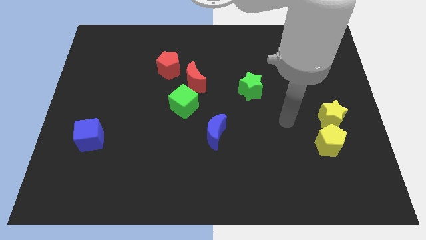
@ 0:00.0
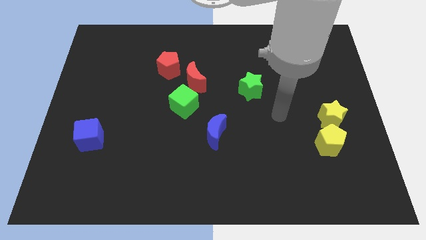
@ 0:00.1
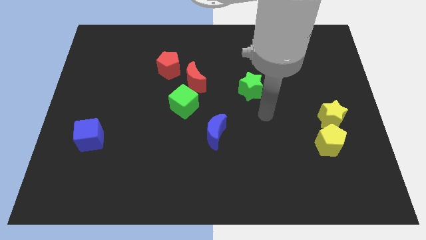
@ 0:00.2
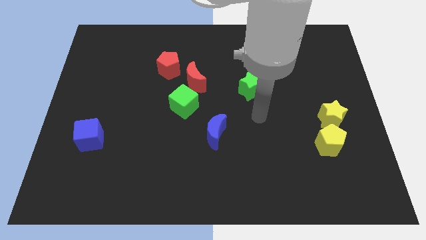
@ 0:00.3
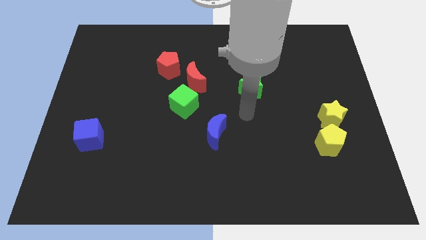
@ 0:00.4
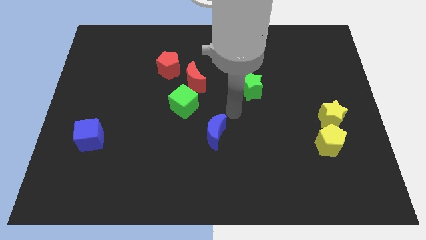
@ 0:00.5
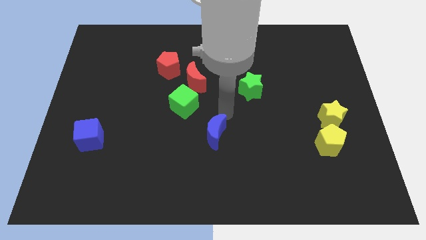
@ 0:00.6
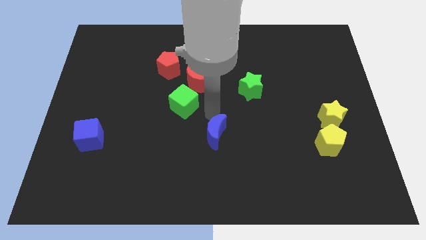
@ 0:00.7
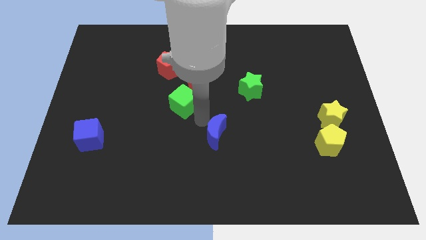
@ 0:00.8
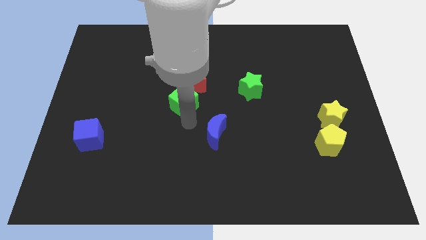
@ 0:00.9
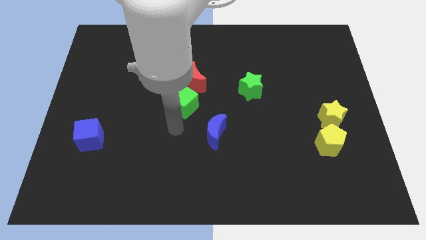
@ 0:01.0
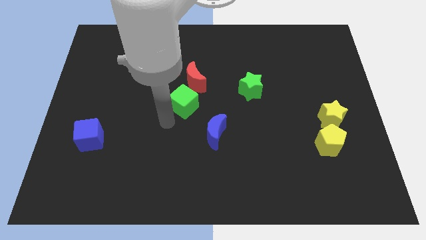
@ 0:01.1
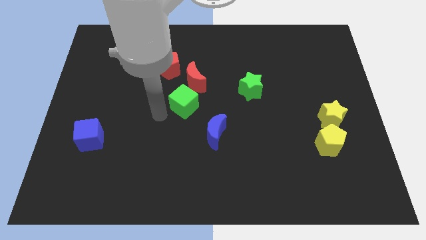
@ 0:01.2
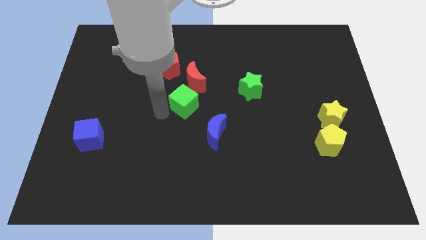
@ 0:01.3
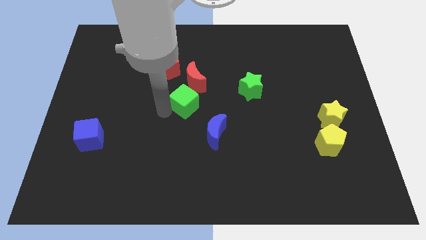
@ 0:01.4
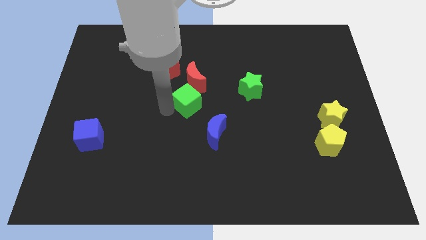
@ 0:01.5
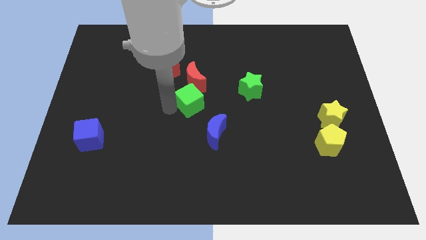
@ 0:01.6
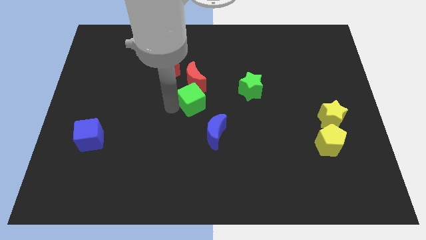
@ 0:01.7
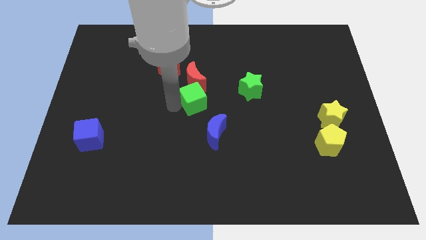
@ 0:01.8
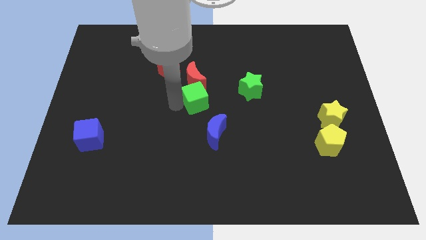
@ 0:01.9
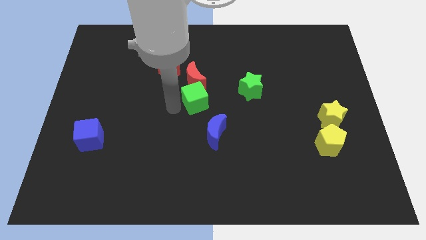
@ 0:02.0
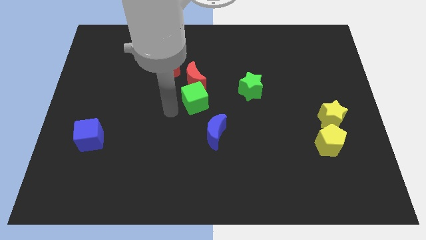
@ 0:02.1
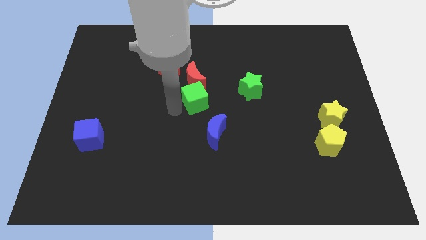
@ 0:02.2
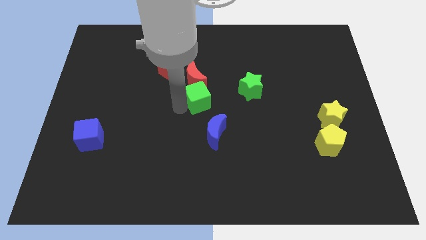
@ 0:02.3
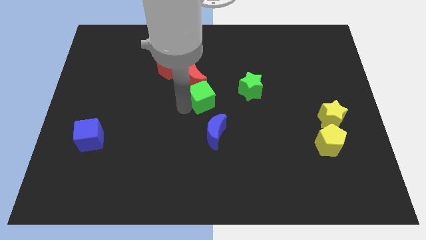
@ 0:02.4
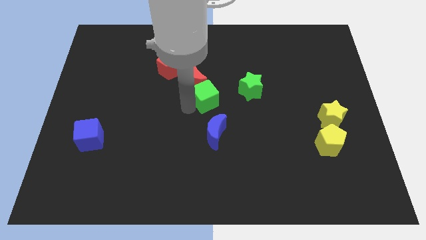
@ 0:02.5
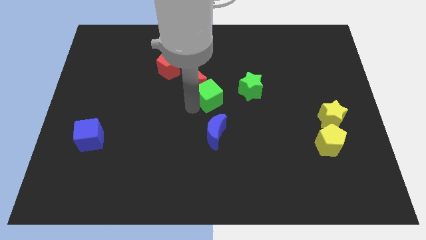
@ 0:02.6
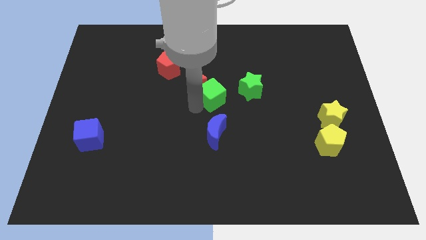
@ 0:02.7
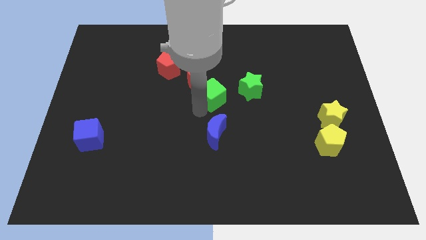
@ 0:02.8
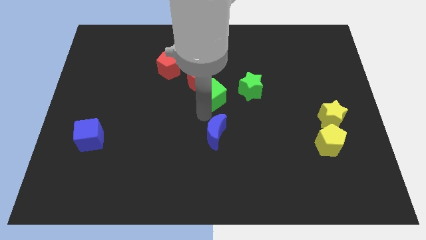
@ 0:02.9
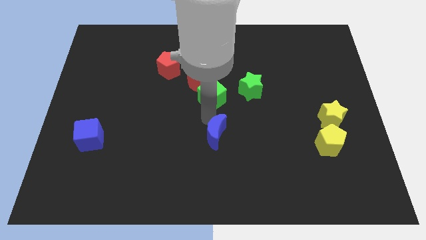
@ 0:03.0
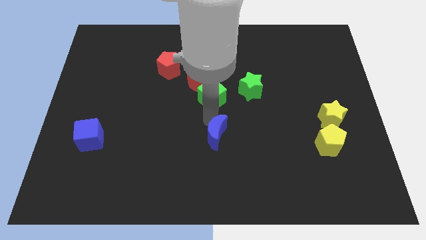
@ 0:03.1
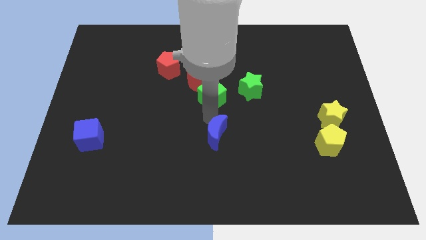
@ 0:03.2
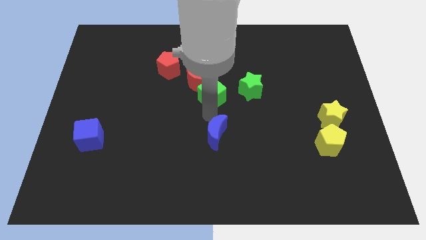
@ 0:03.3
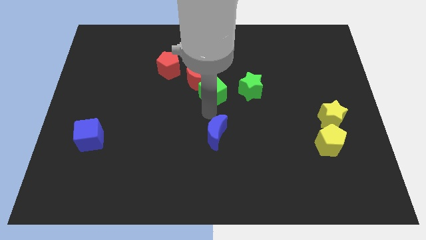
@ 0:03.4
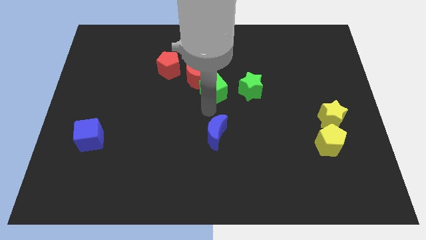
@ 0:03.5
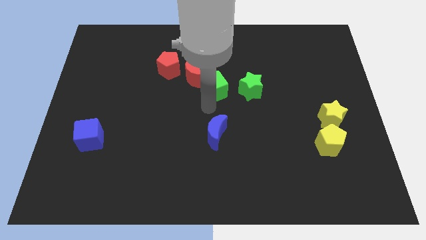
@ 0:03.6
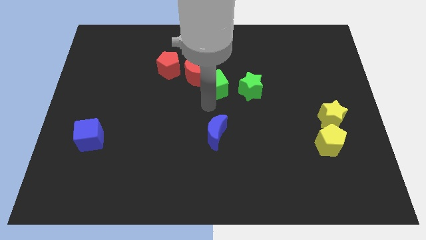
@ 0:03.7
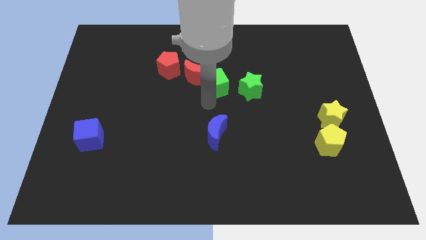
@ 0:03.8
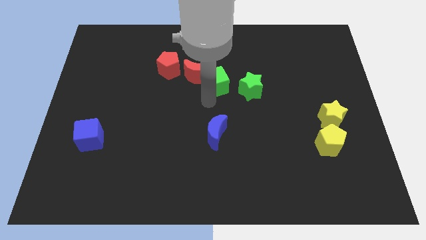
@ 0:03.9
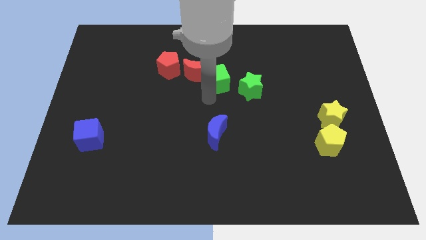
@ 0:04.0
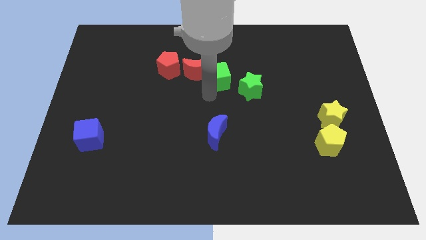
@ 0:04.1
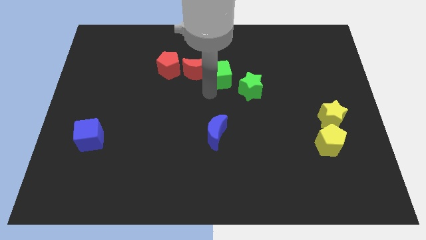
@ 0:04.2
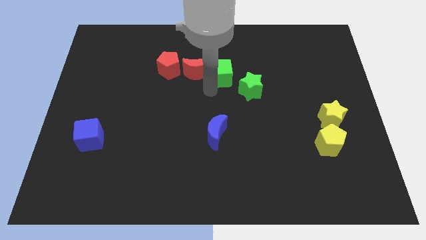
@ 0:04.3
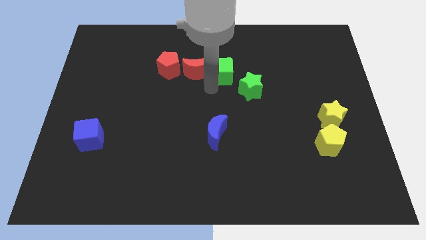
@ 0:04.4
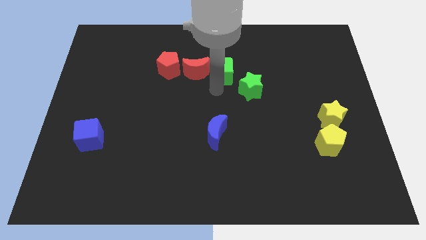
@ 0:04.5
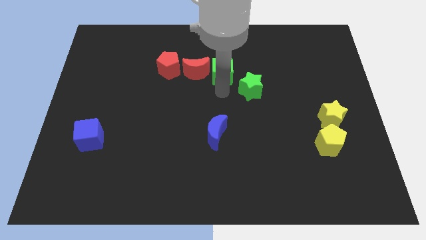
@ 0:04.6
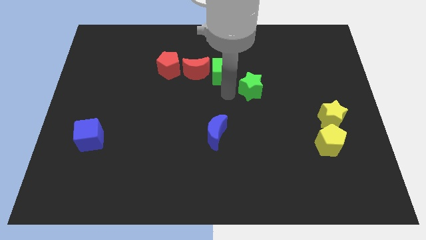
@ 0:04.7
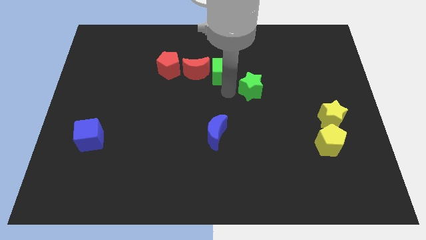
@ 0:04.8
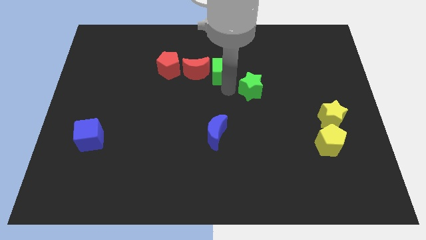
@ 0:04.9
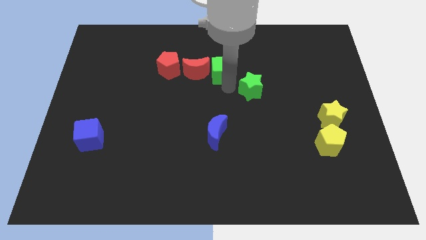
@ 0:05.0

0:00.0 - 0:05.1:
move the green cube to the top right of the red moon

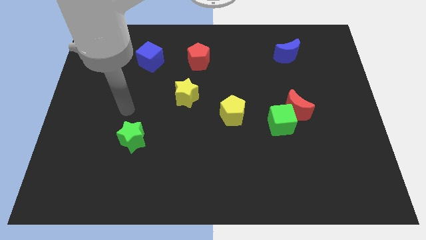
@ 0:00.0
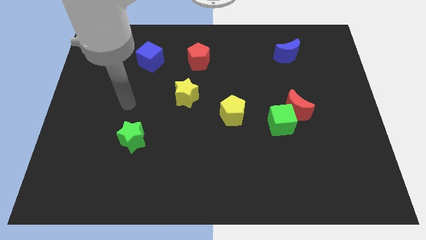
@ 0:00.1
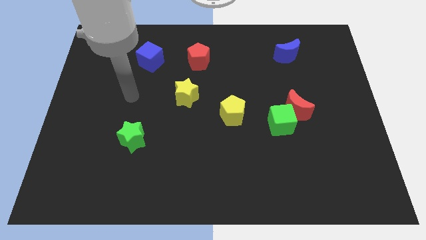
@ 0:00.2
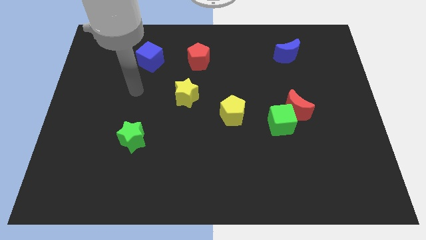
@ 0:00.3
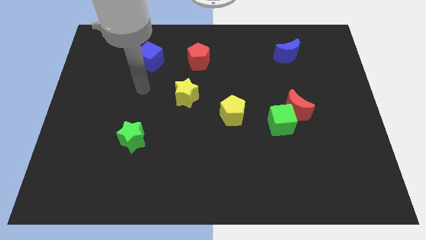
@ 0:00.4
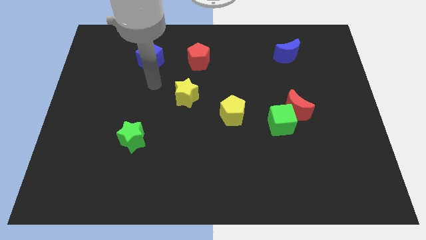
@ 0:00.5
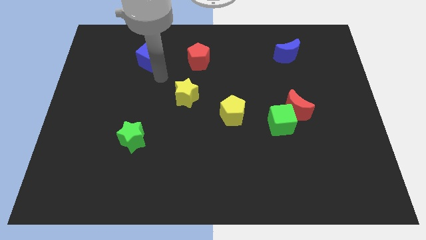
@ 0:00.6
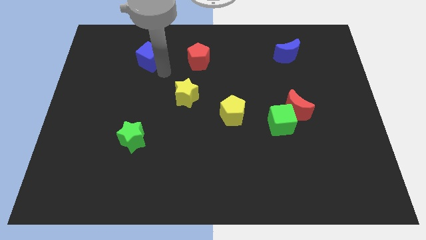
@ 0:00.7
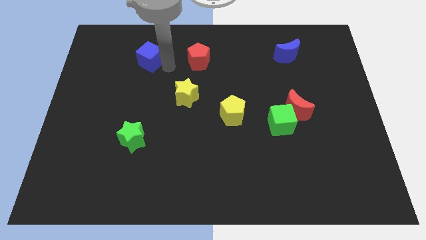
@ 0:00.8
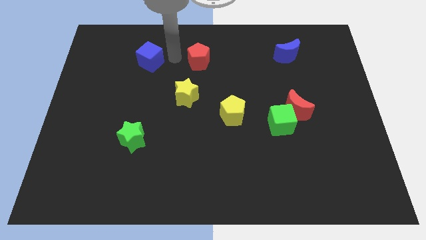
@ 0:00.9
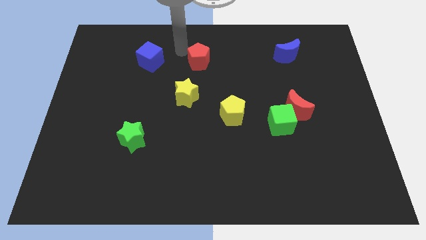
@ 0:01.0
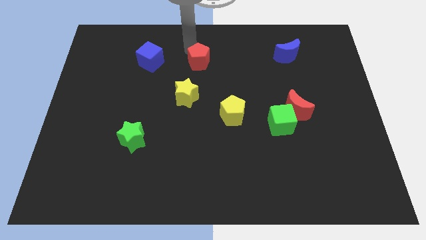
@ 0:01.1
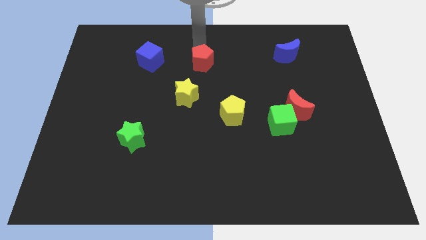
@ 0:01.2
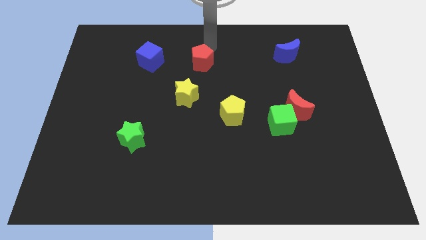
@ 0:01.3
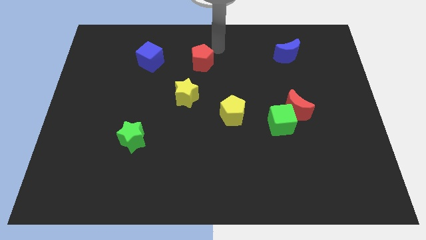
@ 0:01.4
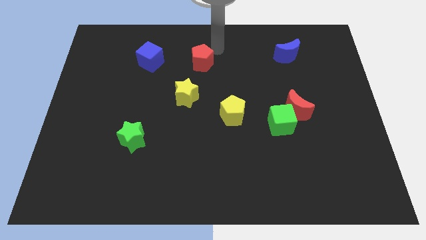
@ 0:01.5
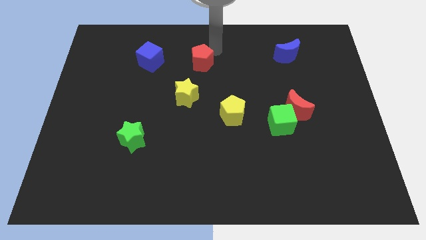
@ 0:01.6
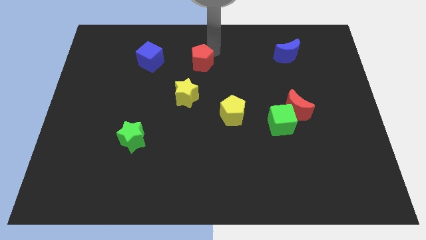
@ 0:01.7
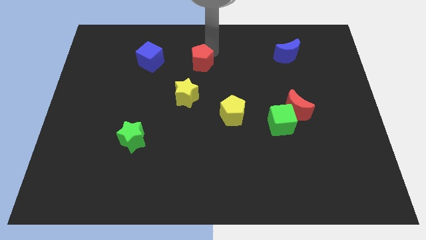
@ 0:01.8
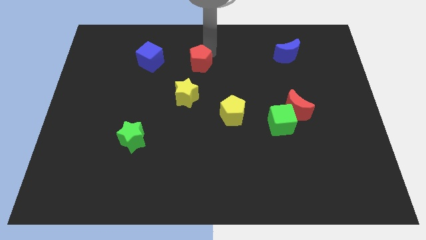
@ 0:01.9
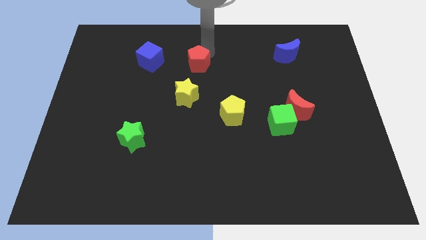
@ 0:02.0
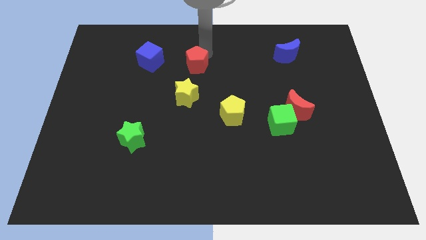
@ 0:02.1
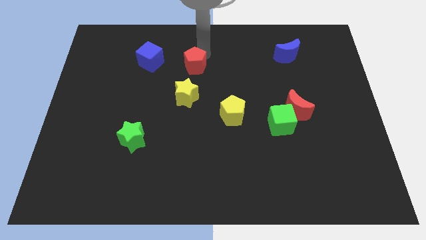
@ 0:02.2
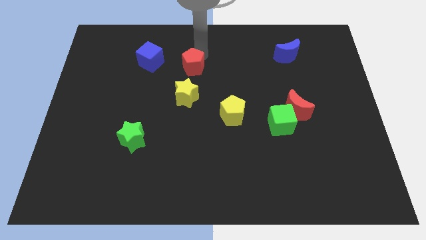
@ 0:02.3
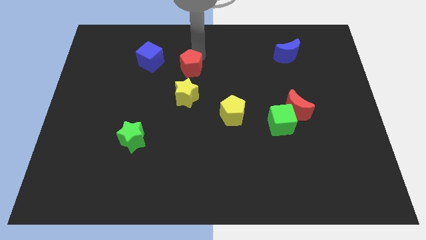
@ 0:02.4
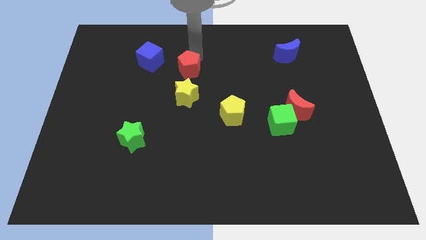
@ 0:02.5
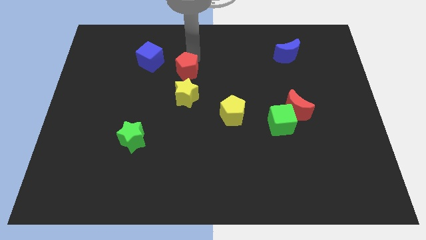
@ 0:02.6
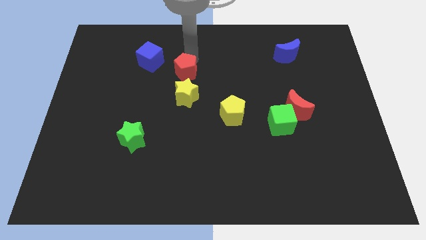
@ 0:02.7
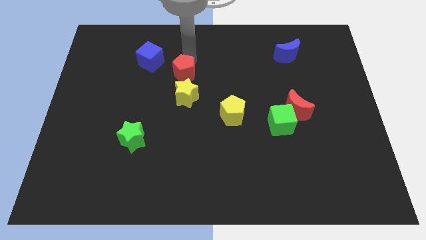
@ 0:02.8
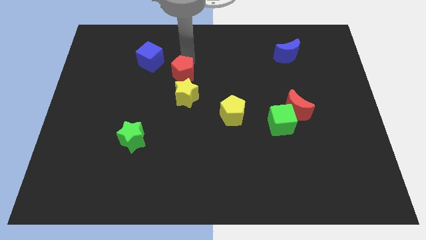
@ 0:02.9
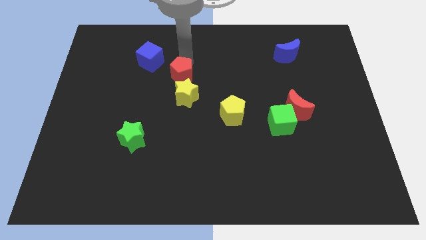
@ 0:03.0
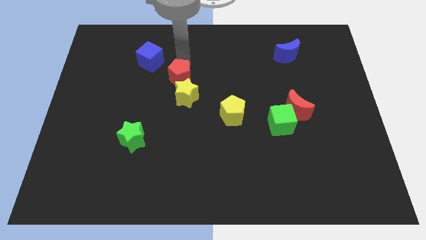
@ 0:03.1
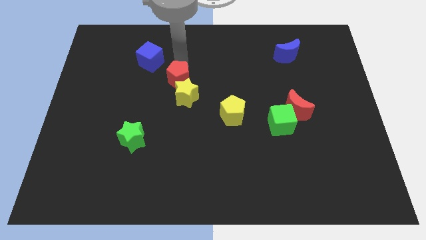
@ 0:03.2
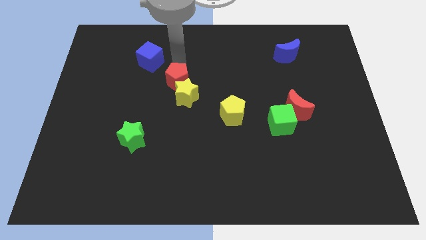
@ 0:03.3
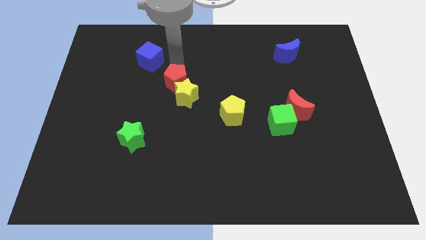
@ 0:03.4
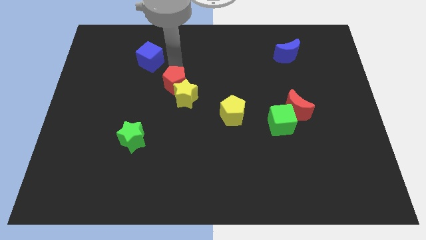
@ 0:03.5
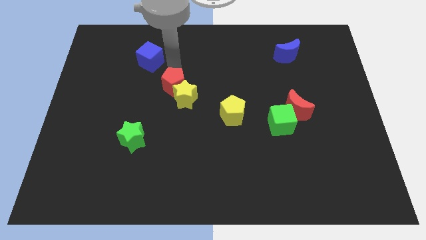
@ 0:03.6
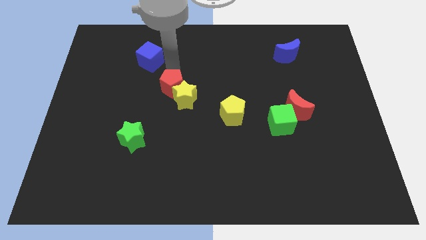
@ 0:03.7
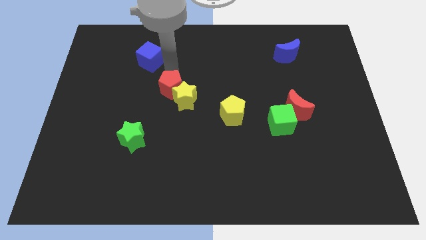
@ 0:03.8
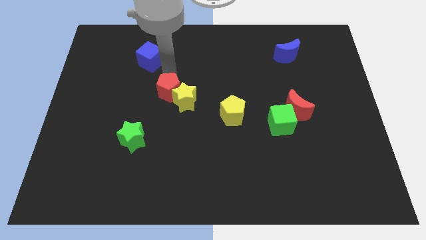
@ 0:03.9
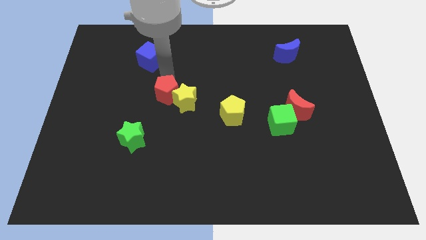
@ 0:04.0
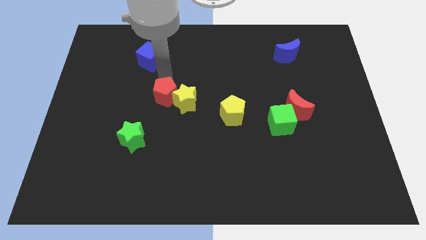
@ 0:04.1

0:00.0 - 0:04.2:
move the red pentagon to the bottom left of the yellow star
